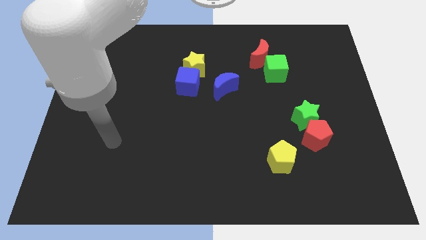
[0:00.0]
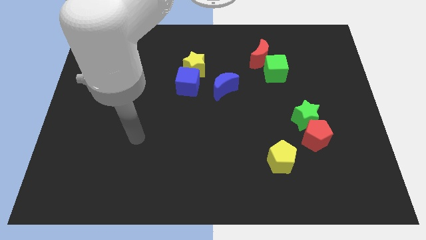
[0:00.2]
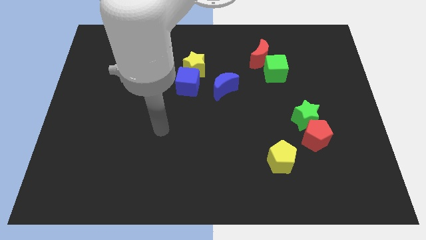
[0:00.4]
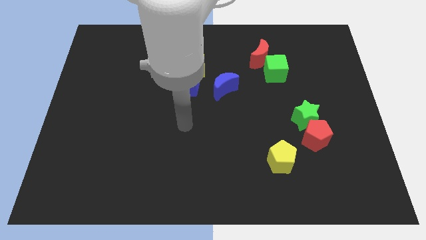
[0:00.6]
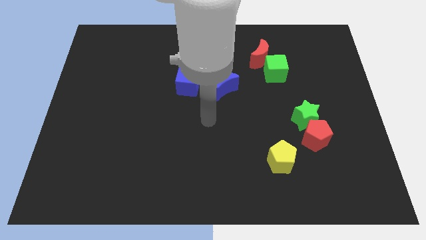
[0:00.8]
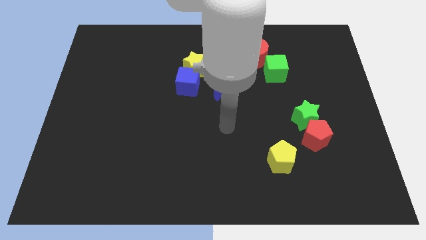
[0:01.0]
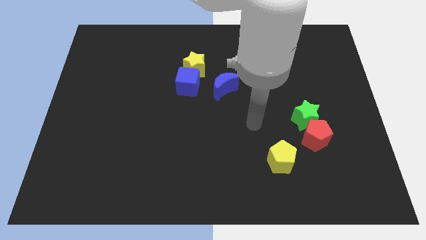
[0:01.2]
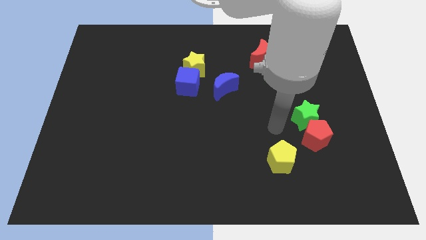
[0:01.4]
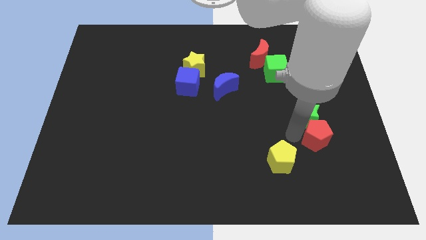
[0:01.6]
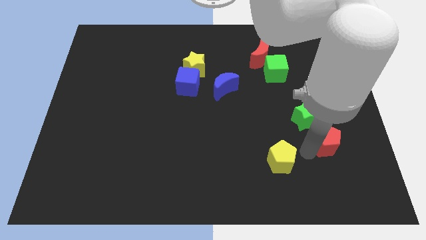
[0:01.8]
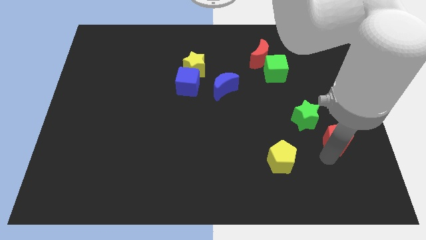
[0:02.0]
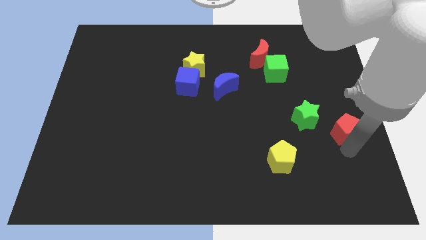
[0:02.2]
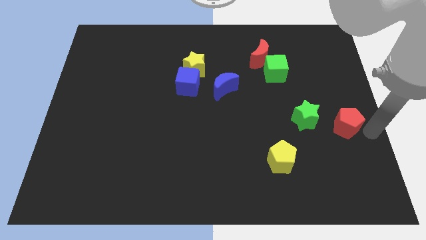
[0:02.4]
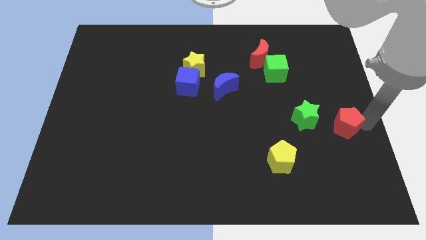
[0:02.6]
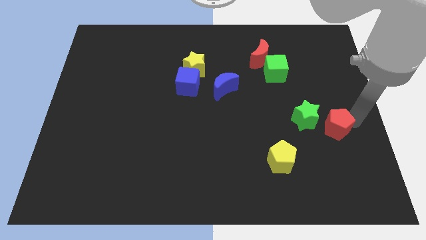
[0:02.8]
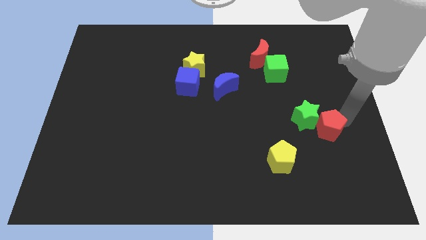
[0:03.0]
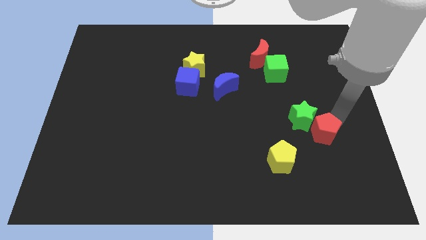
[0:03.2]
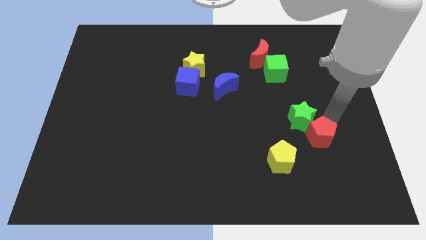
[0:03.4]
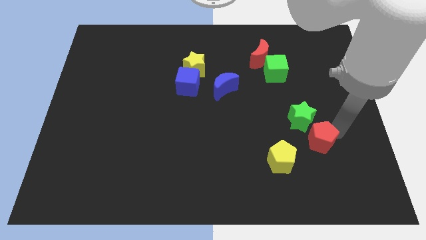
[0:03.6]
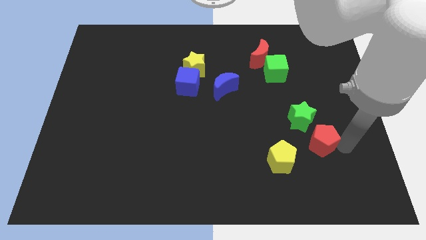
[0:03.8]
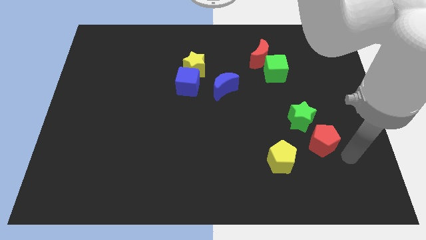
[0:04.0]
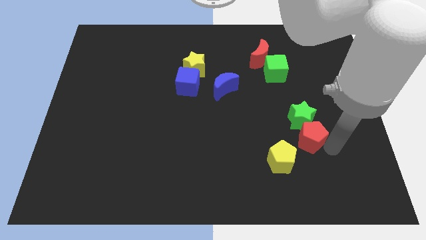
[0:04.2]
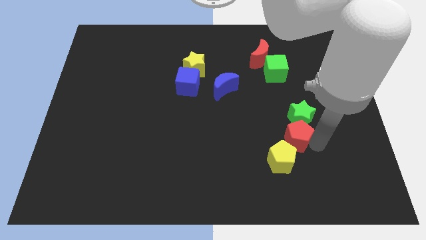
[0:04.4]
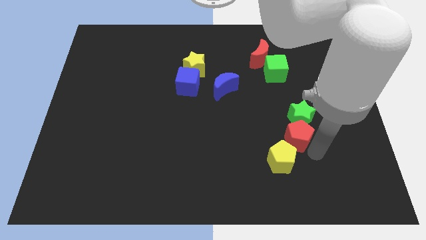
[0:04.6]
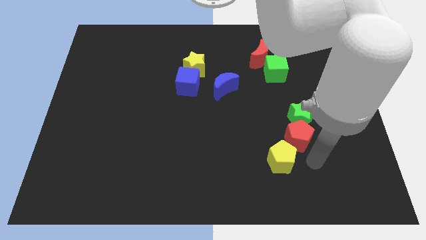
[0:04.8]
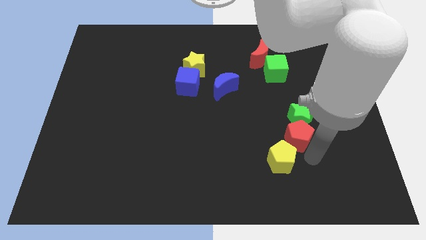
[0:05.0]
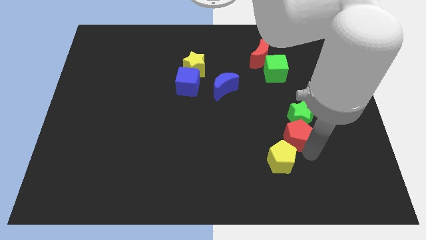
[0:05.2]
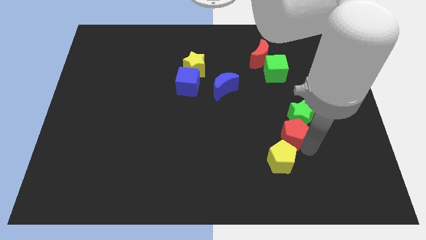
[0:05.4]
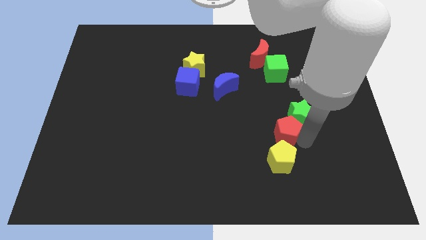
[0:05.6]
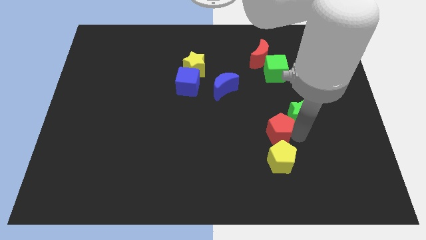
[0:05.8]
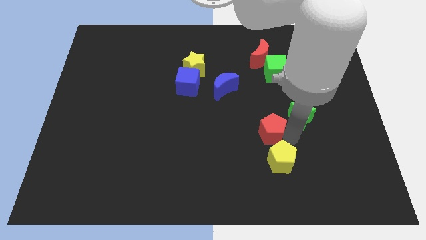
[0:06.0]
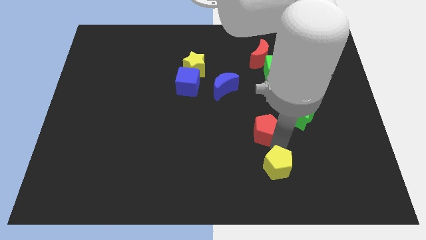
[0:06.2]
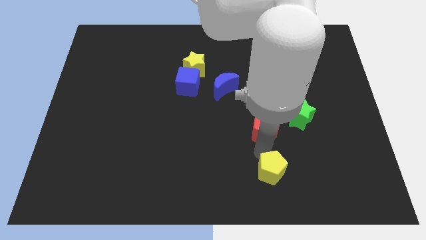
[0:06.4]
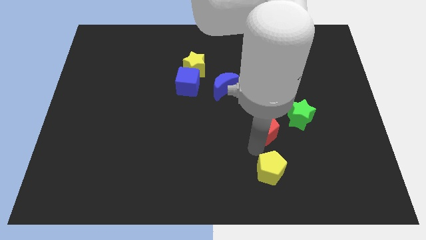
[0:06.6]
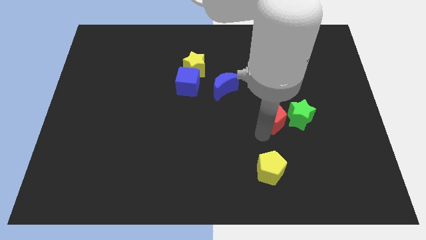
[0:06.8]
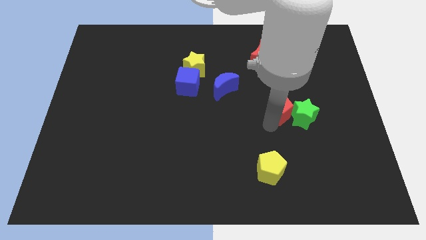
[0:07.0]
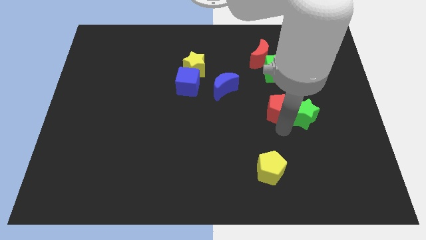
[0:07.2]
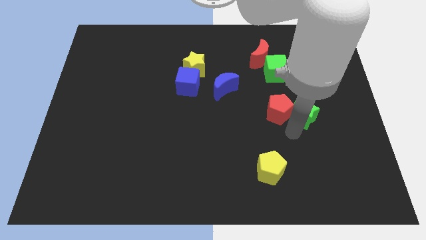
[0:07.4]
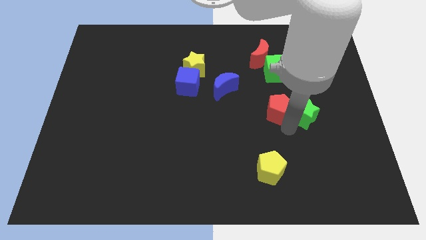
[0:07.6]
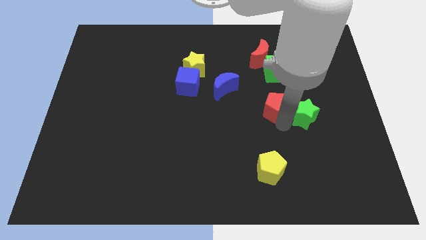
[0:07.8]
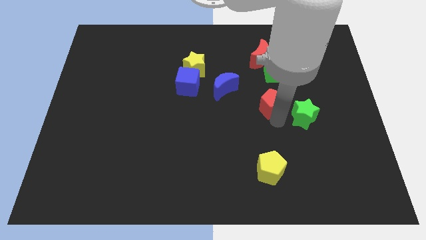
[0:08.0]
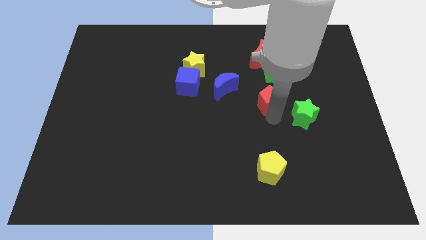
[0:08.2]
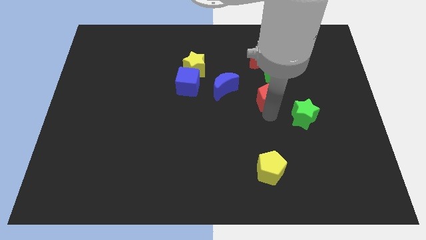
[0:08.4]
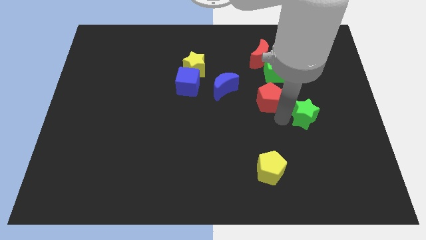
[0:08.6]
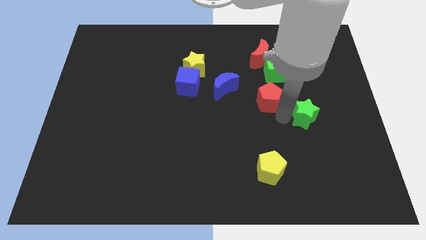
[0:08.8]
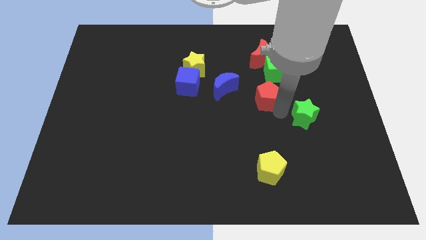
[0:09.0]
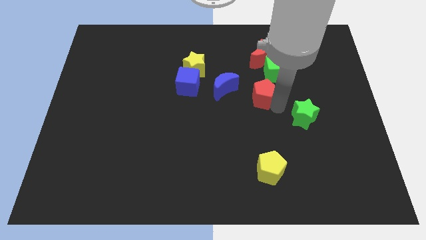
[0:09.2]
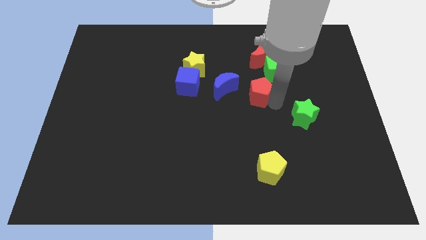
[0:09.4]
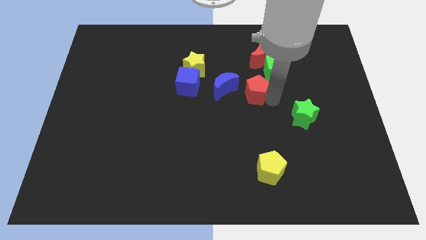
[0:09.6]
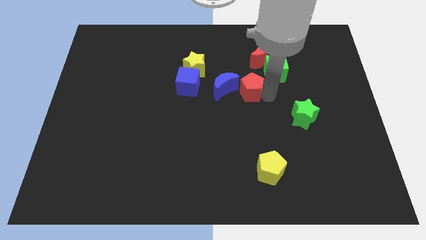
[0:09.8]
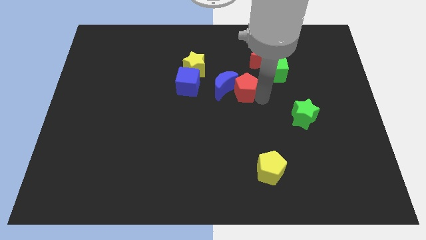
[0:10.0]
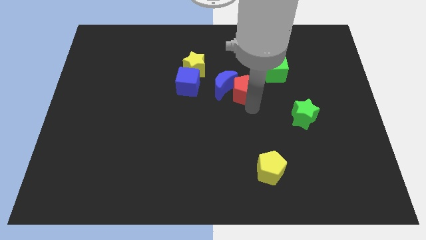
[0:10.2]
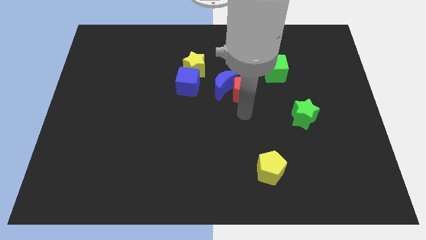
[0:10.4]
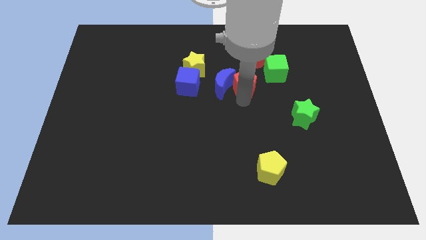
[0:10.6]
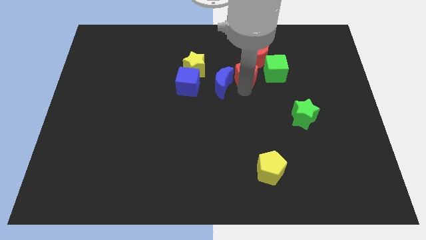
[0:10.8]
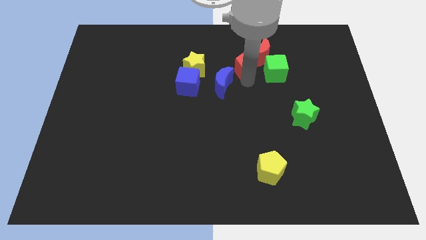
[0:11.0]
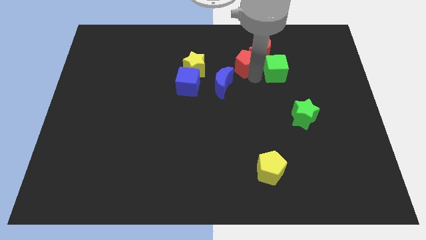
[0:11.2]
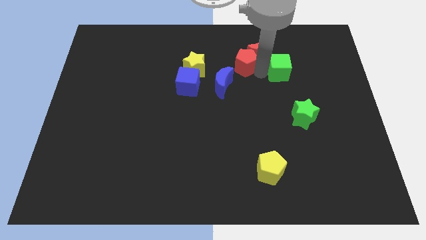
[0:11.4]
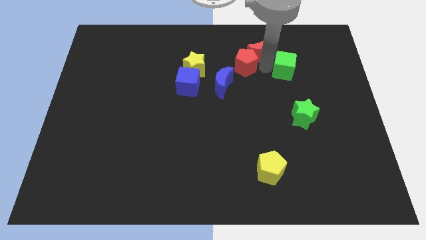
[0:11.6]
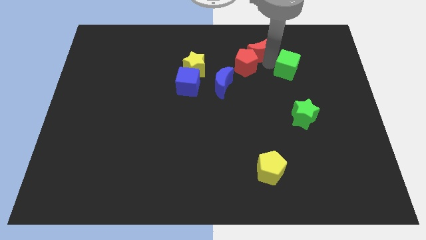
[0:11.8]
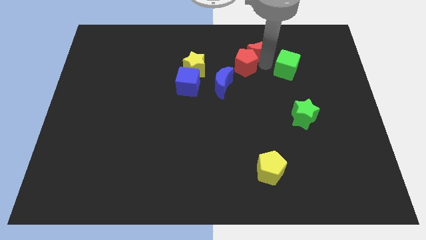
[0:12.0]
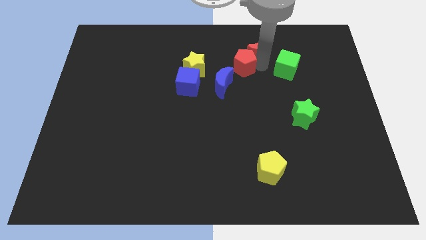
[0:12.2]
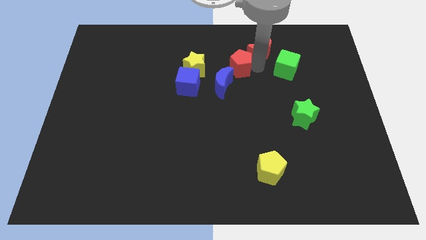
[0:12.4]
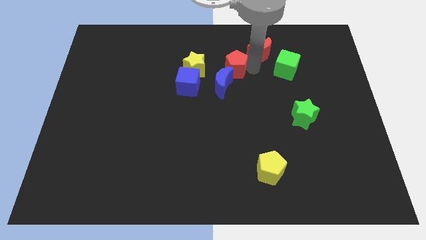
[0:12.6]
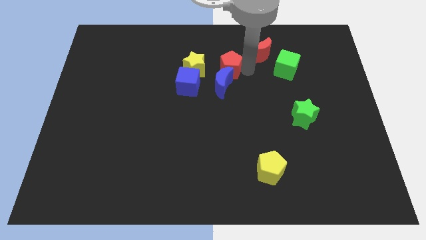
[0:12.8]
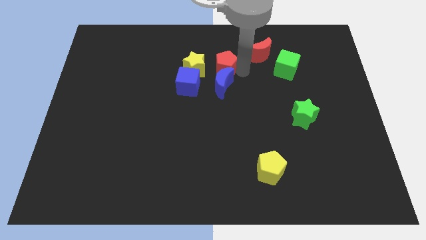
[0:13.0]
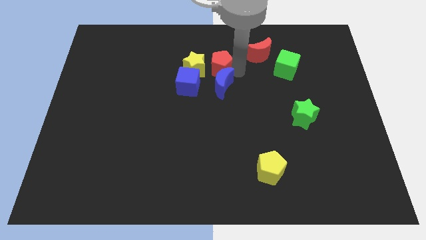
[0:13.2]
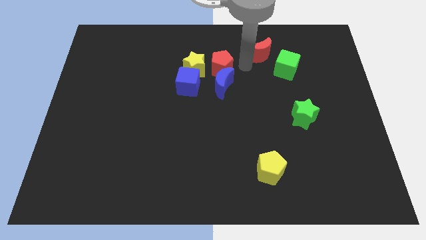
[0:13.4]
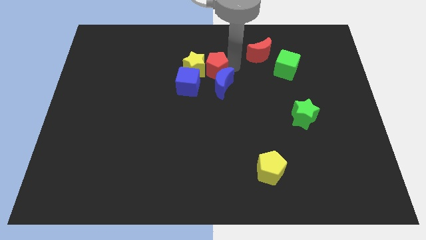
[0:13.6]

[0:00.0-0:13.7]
slide the red pentagon to the yellow star
